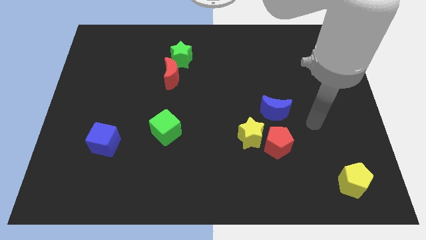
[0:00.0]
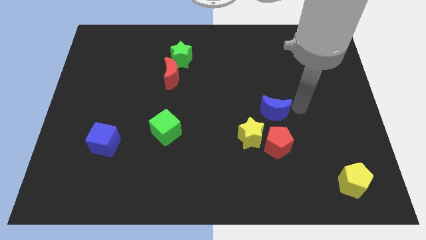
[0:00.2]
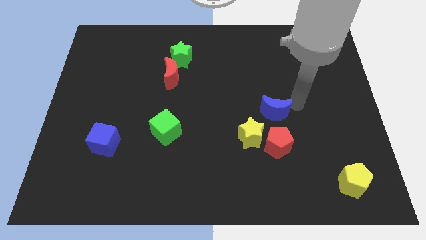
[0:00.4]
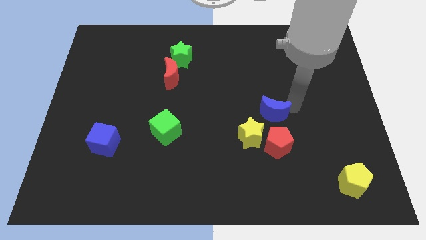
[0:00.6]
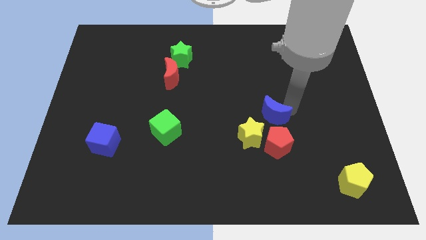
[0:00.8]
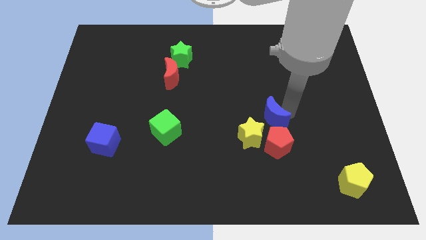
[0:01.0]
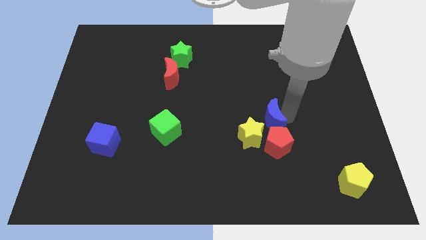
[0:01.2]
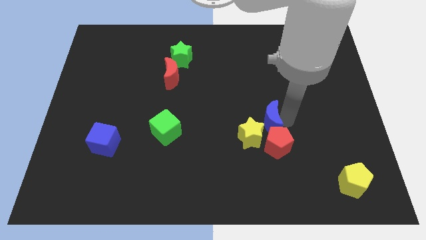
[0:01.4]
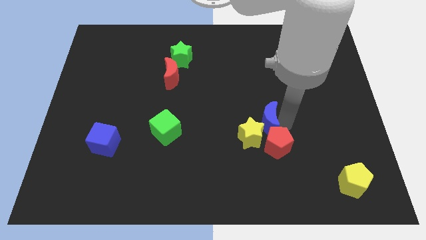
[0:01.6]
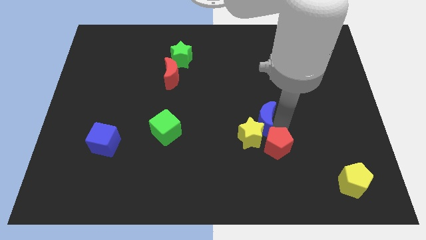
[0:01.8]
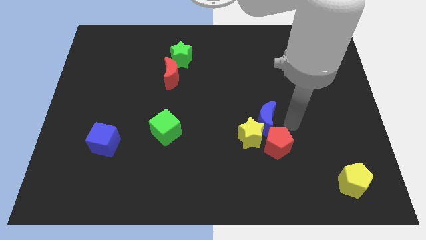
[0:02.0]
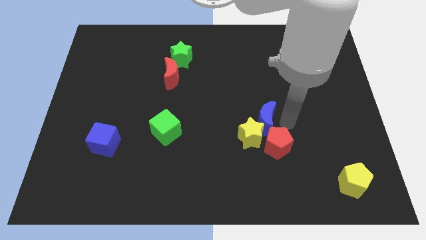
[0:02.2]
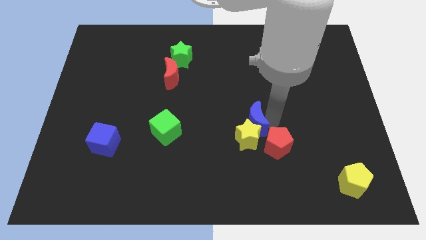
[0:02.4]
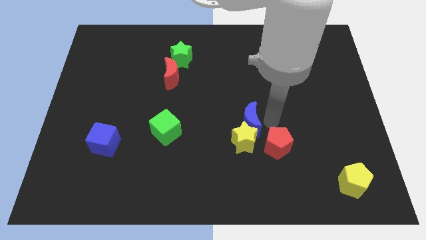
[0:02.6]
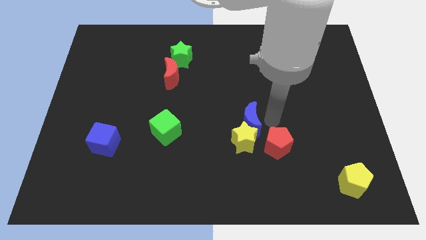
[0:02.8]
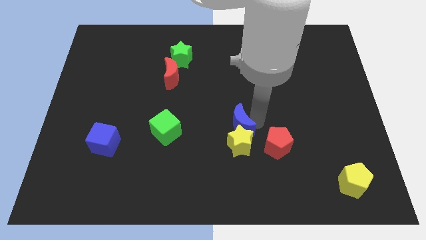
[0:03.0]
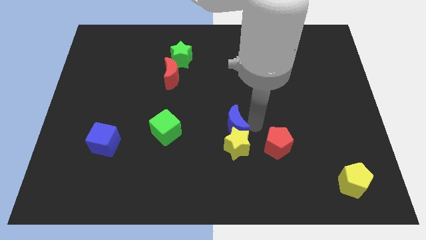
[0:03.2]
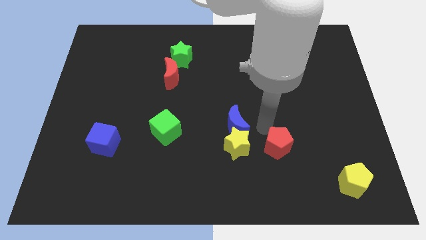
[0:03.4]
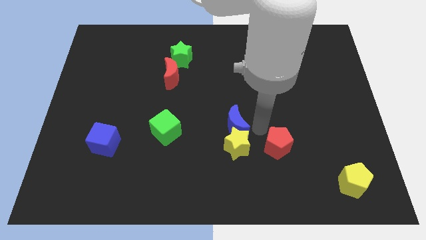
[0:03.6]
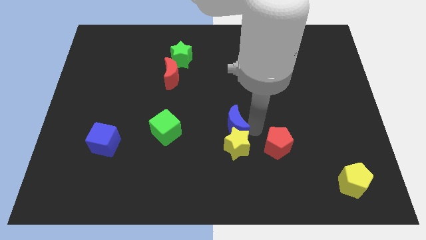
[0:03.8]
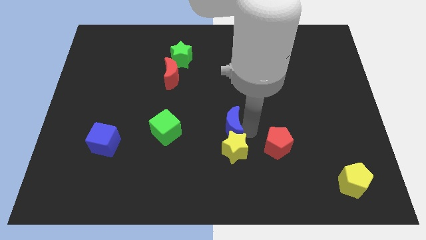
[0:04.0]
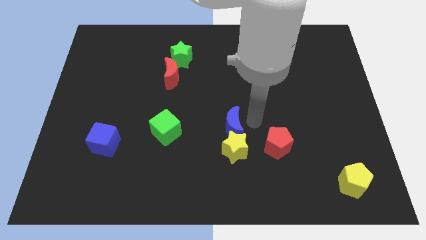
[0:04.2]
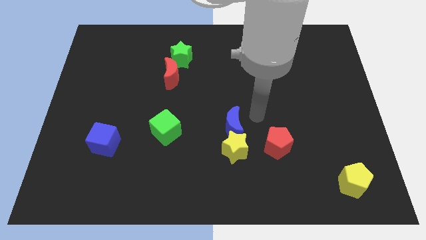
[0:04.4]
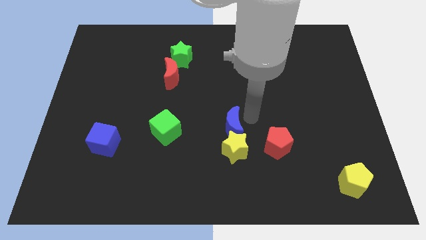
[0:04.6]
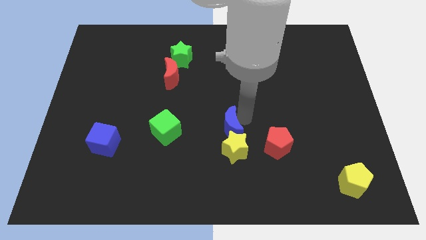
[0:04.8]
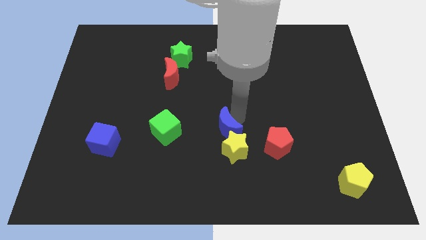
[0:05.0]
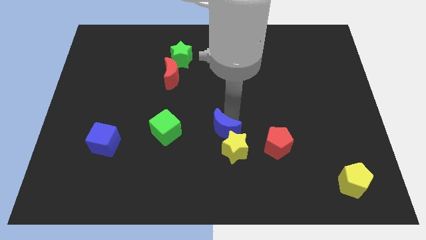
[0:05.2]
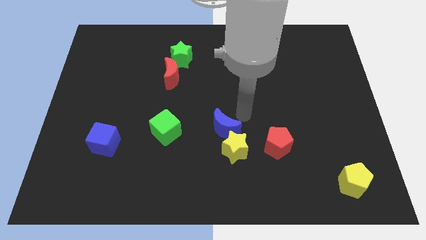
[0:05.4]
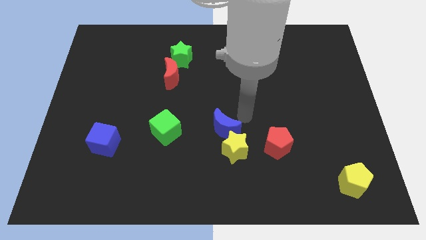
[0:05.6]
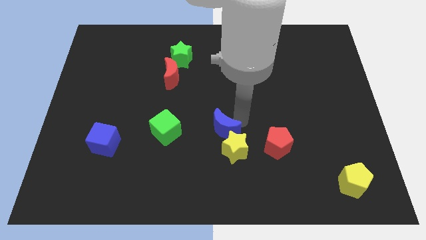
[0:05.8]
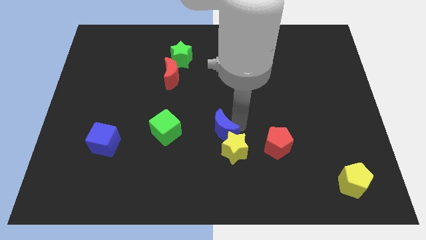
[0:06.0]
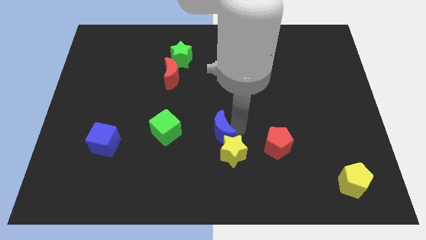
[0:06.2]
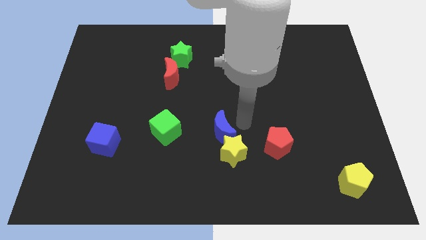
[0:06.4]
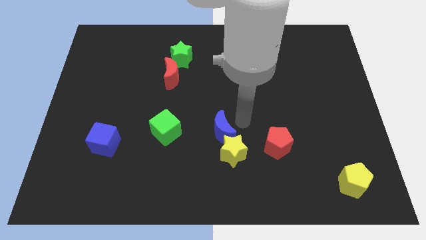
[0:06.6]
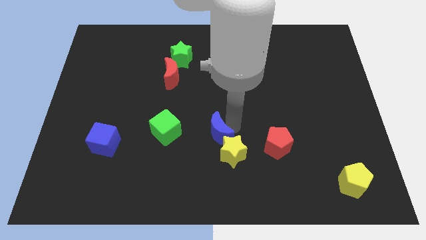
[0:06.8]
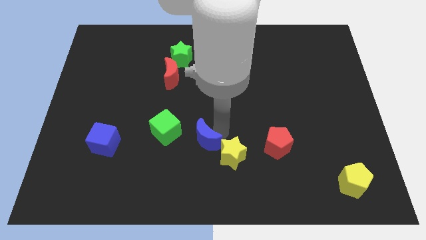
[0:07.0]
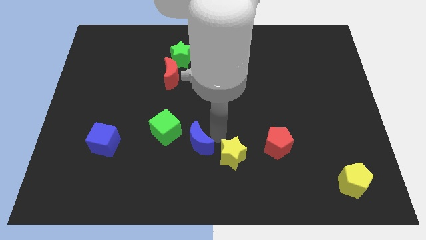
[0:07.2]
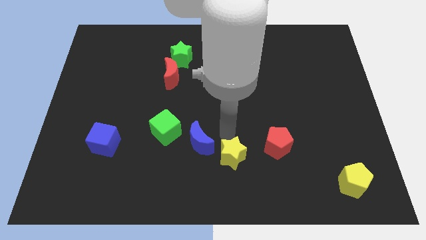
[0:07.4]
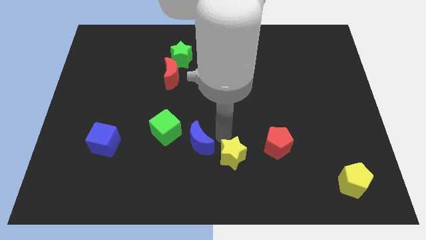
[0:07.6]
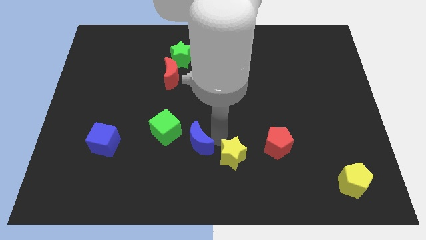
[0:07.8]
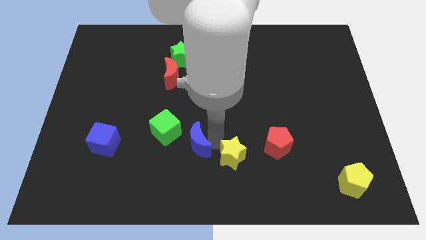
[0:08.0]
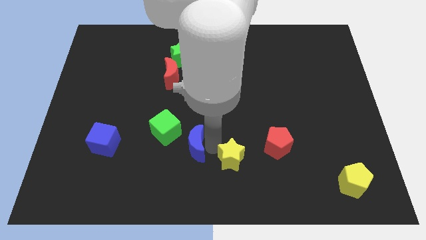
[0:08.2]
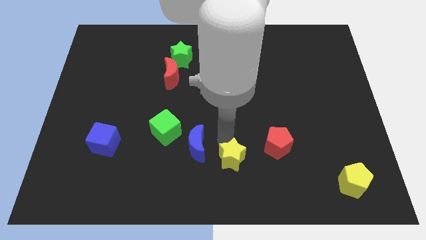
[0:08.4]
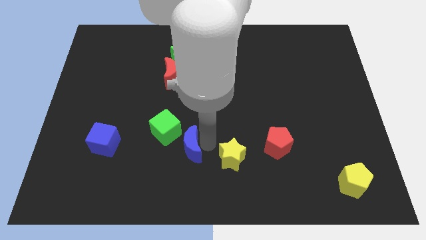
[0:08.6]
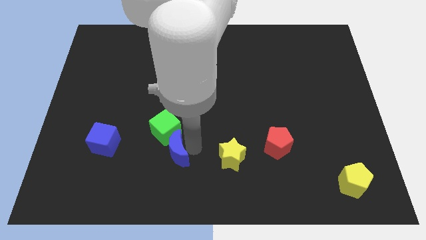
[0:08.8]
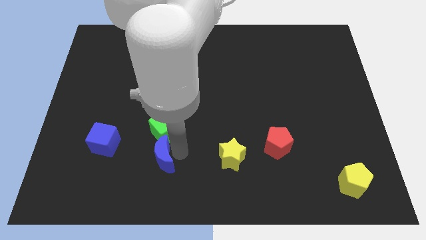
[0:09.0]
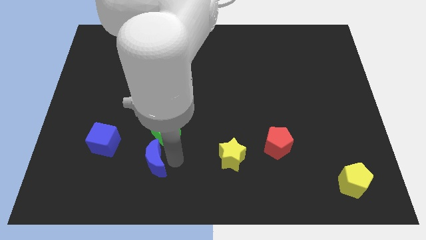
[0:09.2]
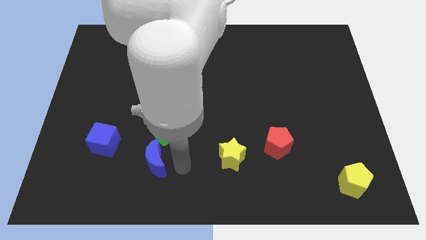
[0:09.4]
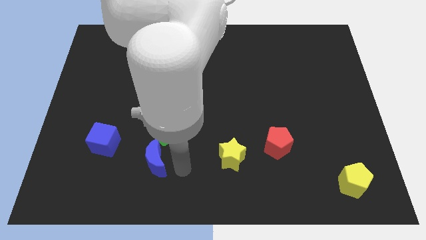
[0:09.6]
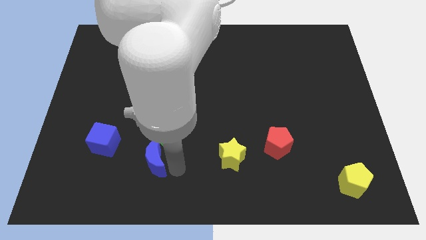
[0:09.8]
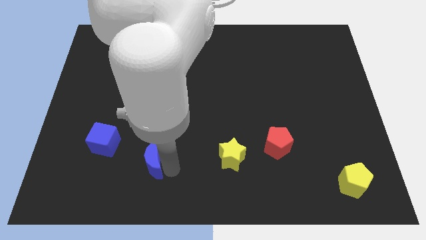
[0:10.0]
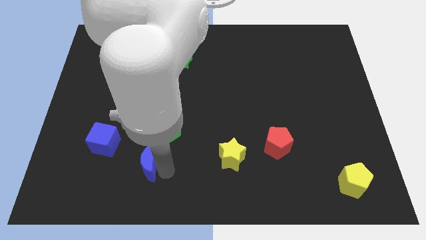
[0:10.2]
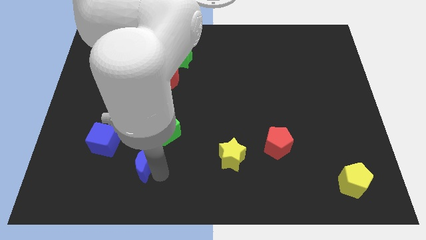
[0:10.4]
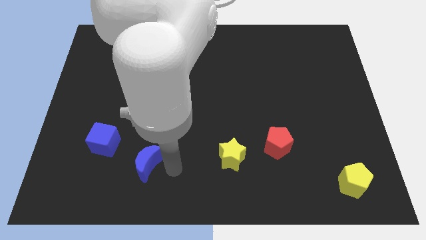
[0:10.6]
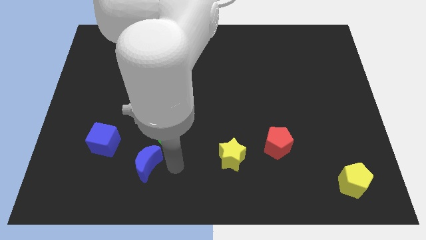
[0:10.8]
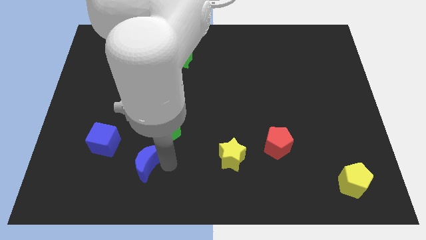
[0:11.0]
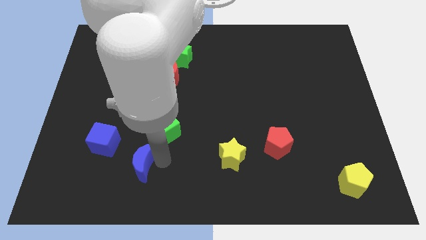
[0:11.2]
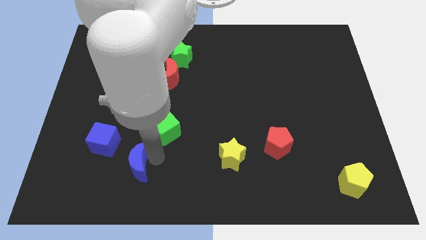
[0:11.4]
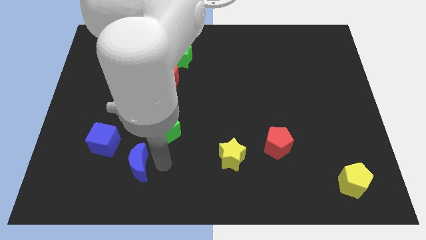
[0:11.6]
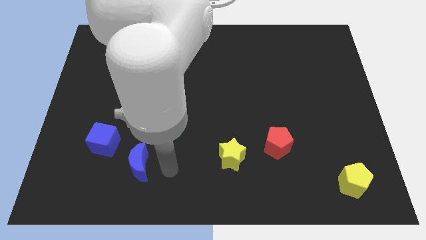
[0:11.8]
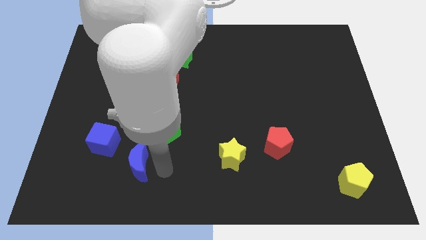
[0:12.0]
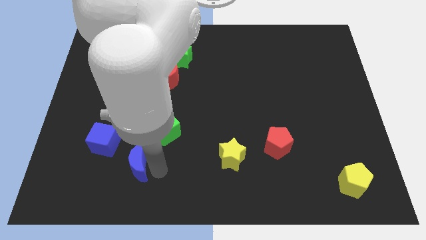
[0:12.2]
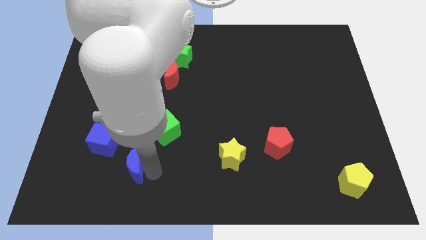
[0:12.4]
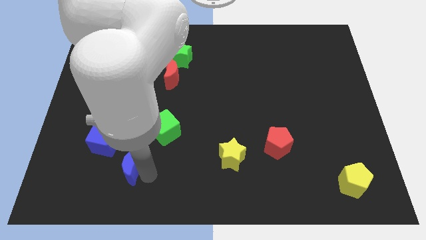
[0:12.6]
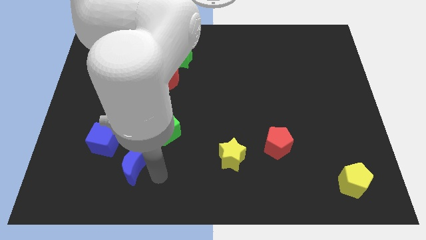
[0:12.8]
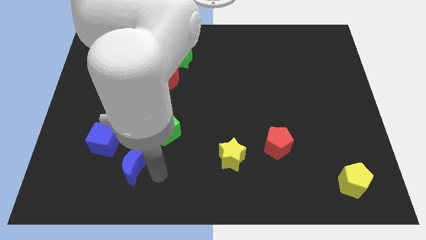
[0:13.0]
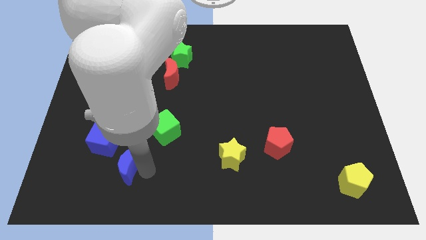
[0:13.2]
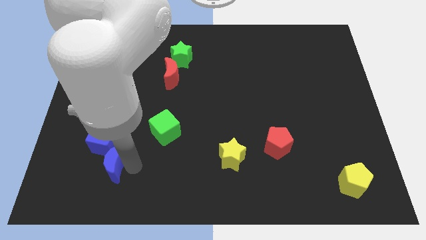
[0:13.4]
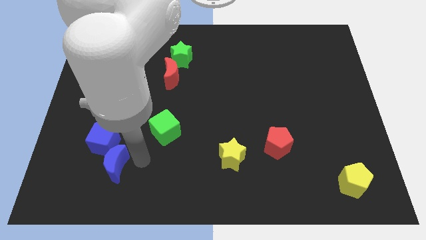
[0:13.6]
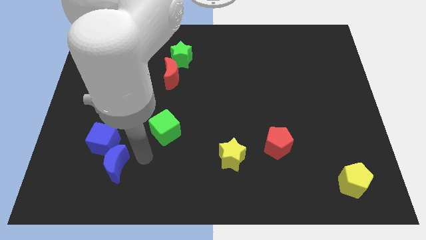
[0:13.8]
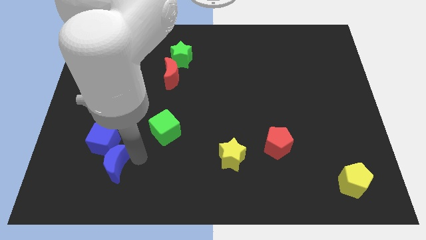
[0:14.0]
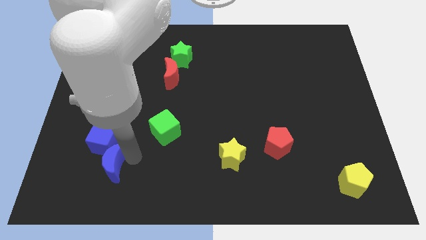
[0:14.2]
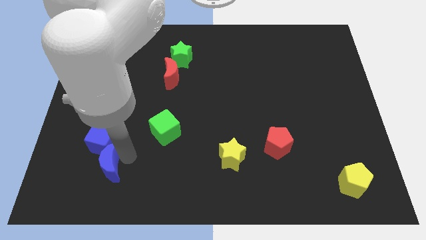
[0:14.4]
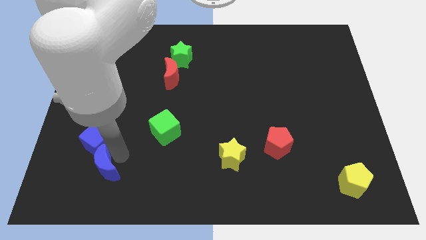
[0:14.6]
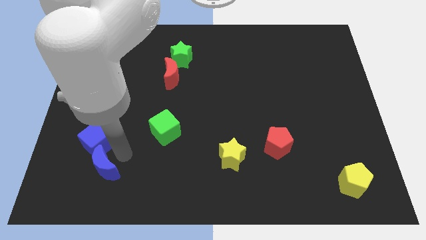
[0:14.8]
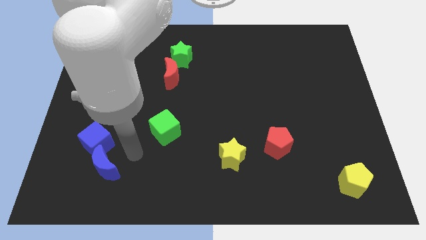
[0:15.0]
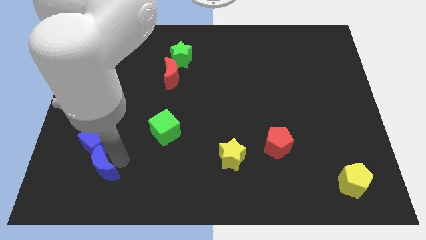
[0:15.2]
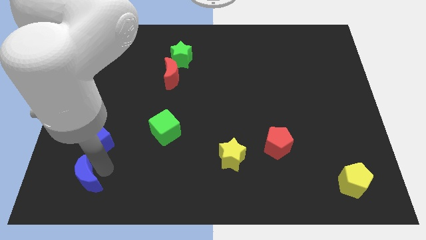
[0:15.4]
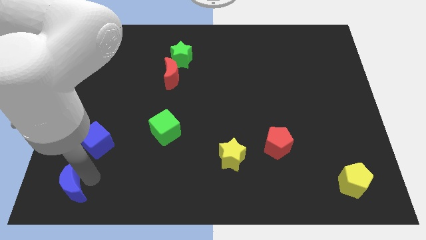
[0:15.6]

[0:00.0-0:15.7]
put the blue moon to the bottom left corner
